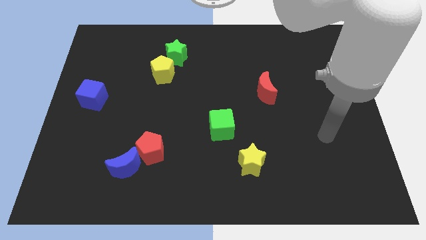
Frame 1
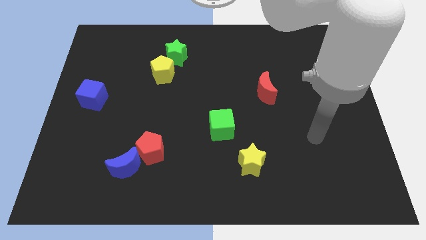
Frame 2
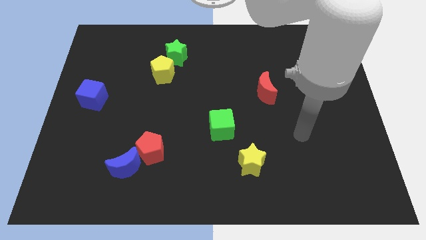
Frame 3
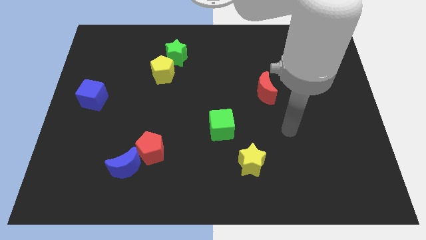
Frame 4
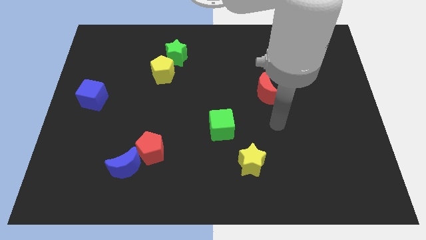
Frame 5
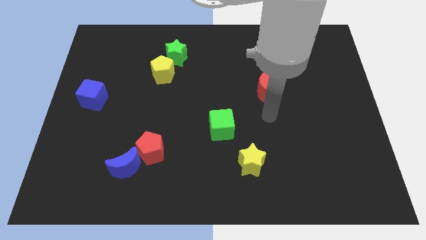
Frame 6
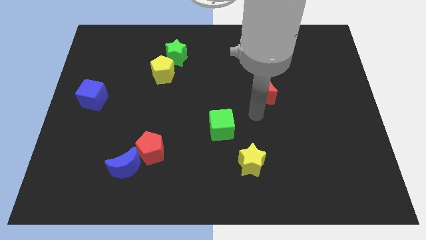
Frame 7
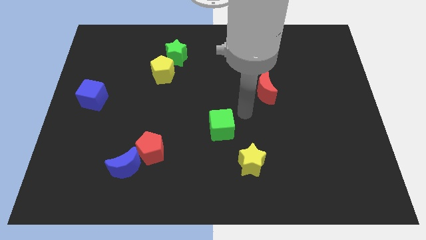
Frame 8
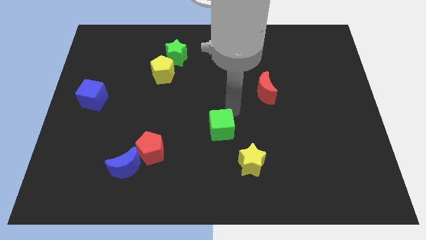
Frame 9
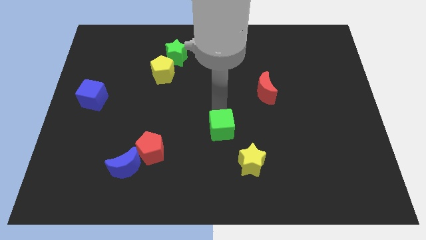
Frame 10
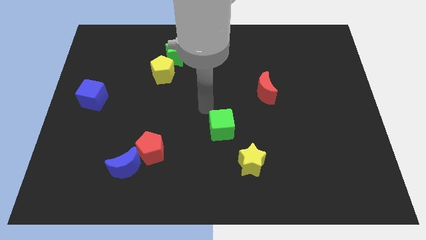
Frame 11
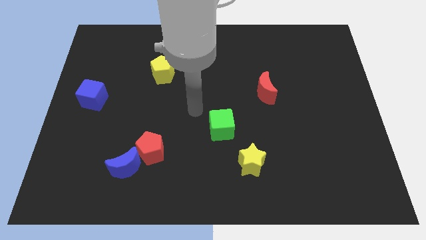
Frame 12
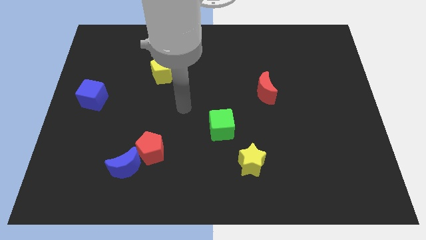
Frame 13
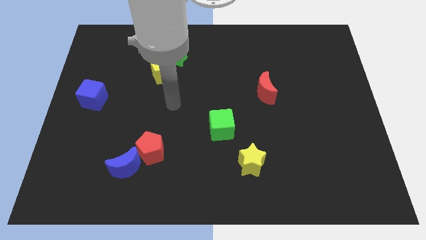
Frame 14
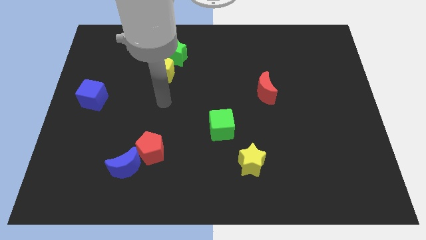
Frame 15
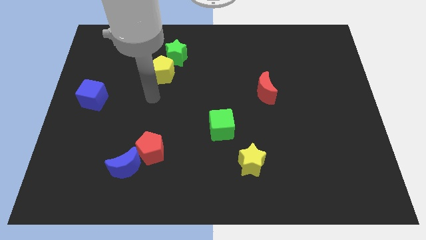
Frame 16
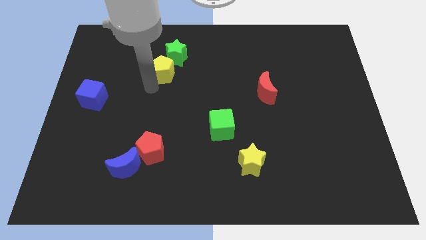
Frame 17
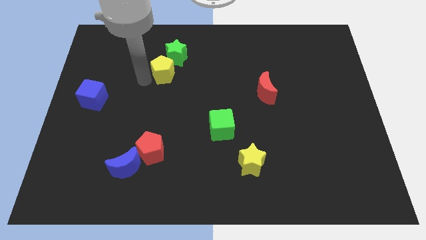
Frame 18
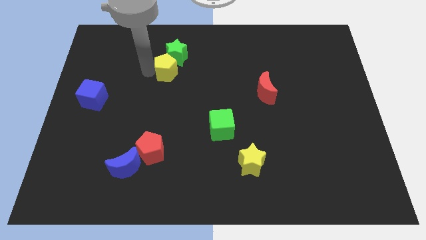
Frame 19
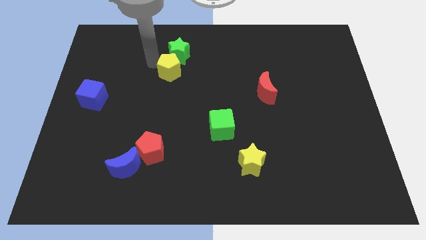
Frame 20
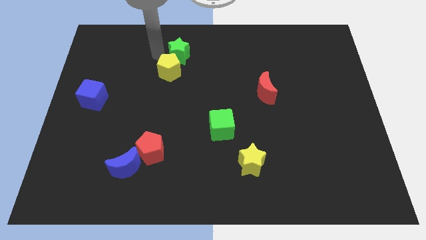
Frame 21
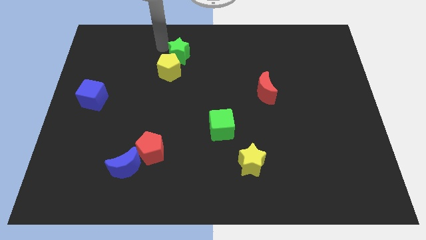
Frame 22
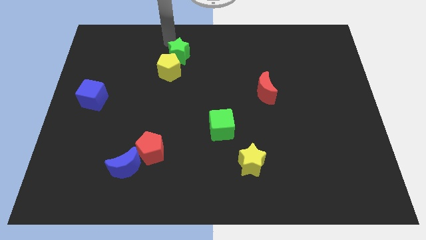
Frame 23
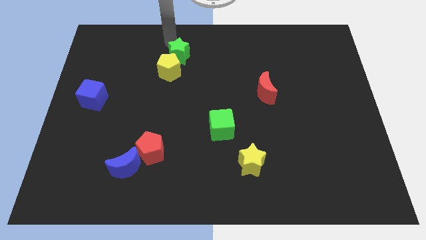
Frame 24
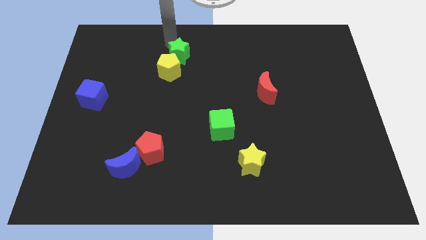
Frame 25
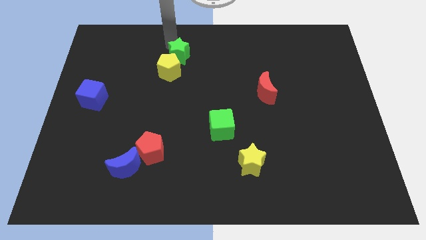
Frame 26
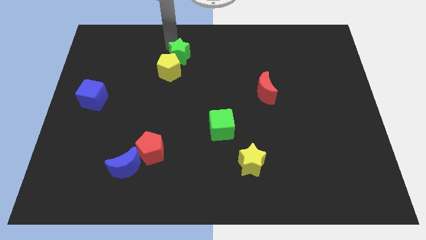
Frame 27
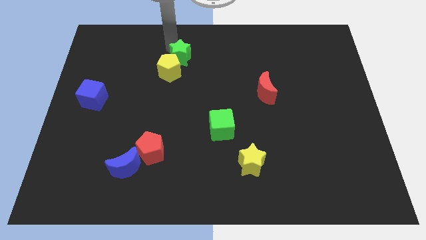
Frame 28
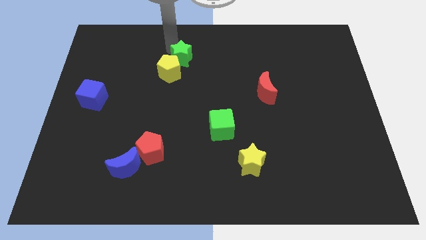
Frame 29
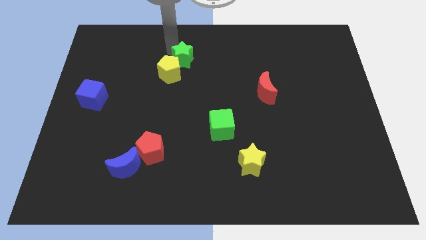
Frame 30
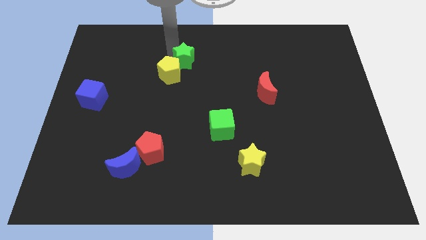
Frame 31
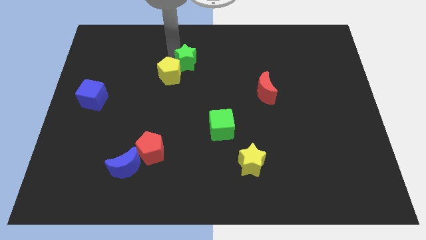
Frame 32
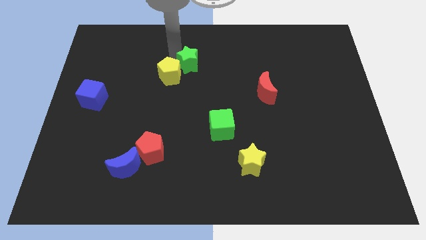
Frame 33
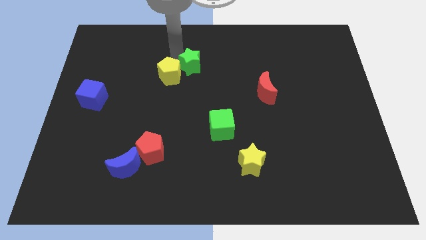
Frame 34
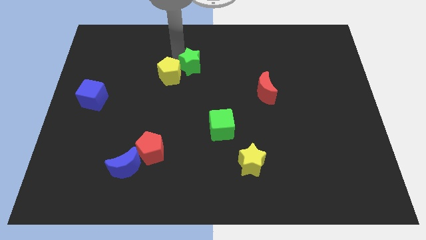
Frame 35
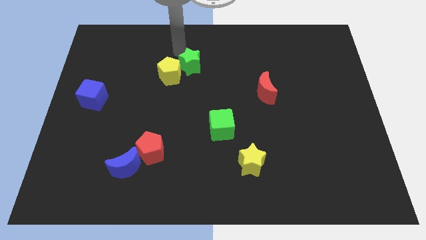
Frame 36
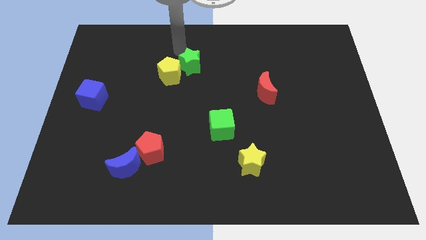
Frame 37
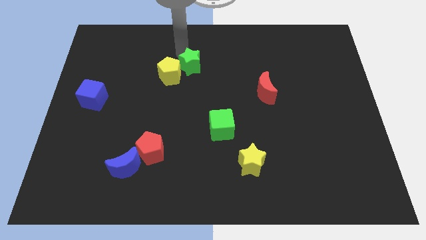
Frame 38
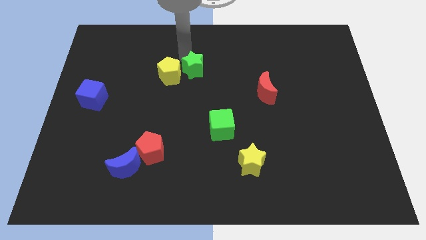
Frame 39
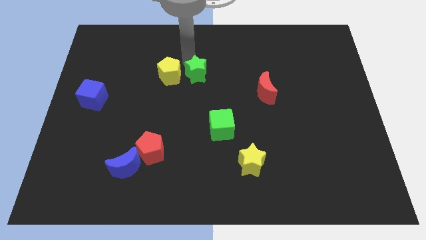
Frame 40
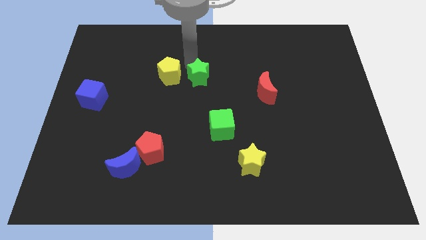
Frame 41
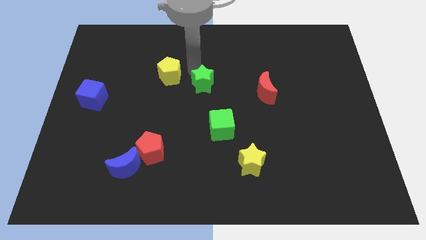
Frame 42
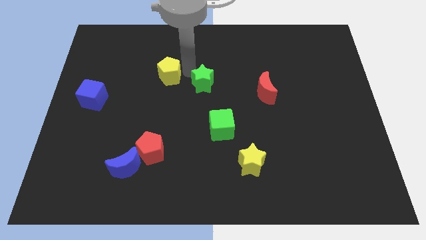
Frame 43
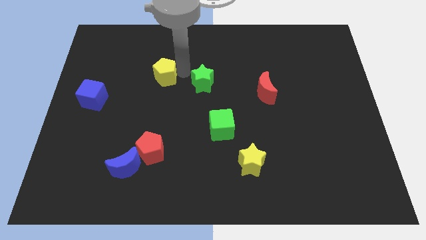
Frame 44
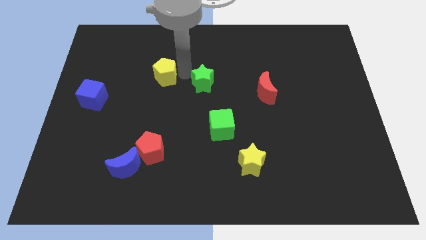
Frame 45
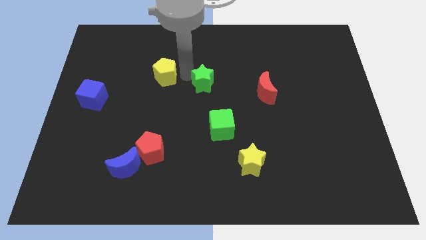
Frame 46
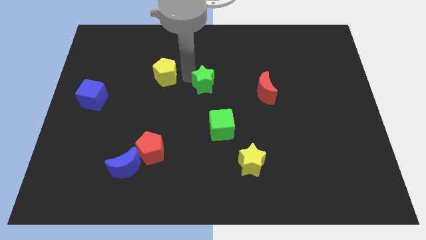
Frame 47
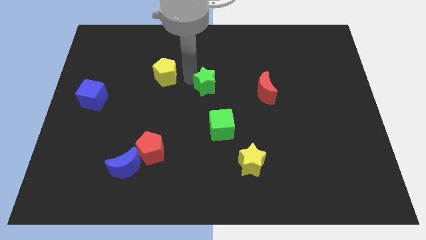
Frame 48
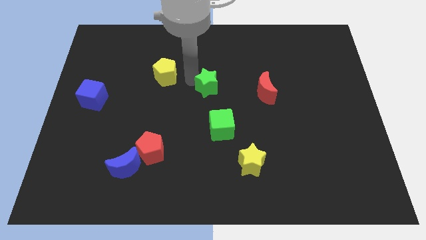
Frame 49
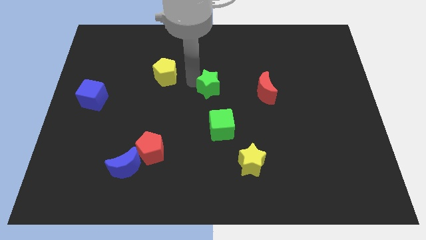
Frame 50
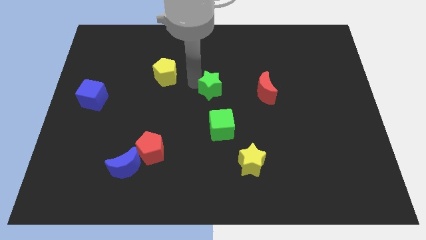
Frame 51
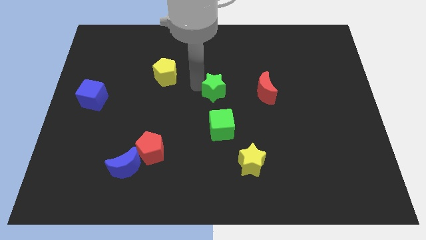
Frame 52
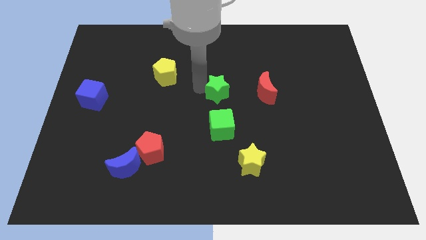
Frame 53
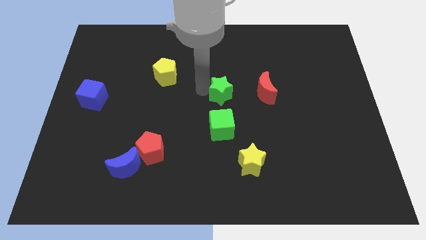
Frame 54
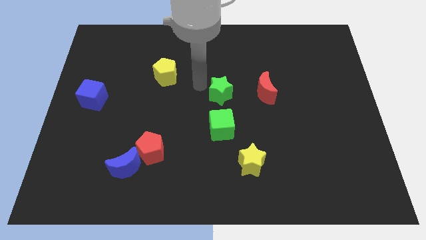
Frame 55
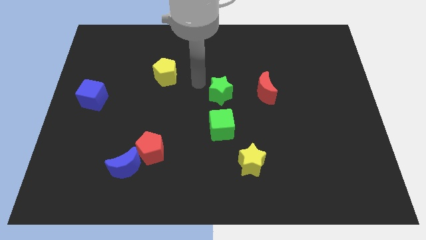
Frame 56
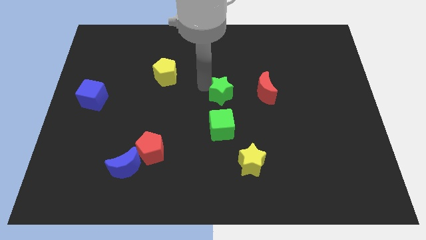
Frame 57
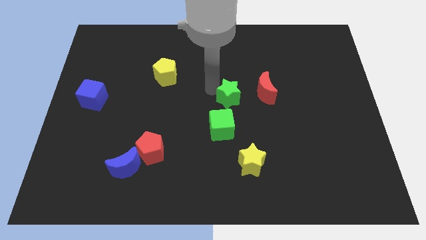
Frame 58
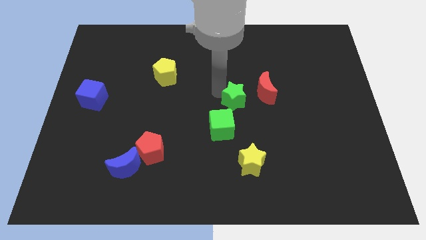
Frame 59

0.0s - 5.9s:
push the green star diagonally down and right

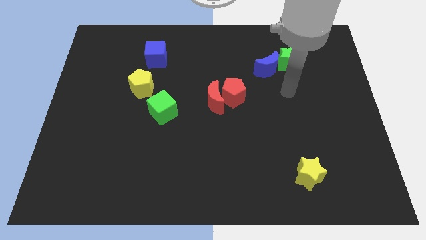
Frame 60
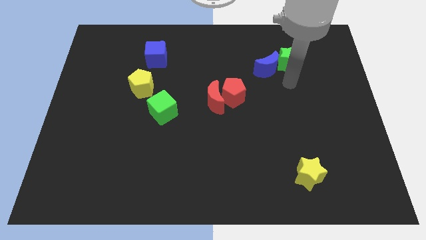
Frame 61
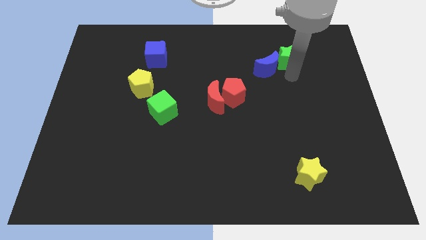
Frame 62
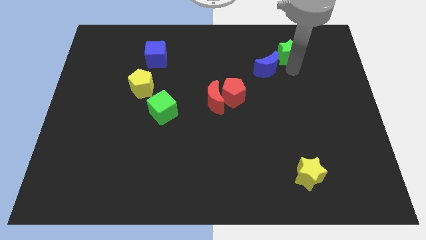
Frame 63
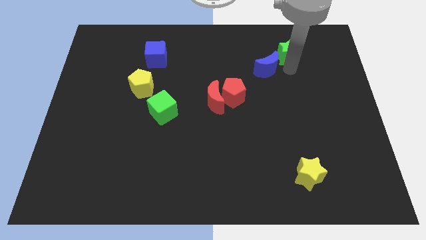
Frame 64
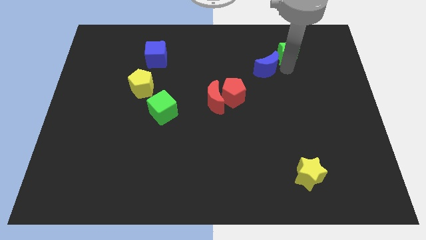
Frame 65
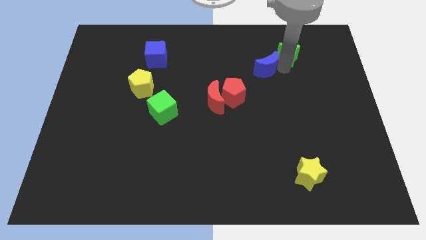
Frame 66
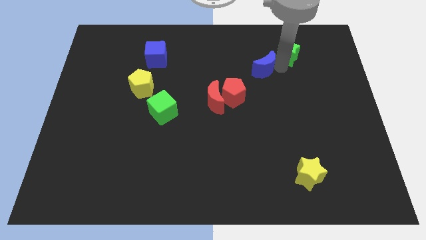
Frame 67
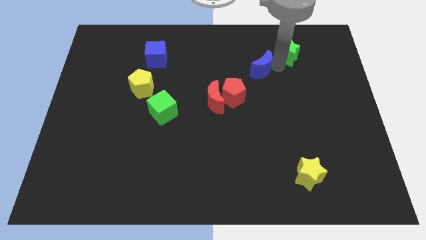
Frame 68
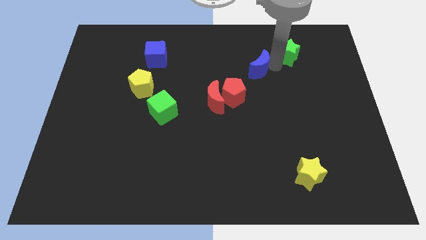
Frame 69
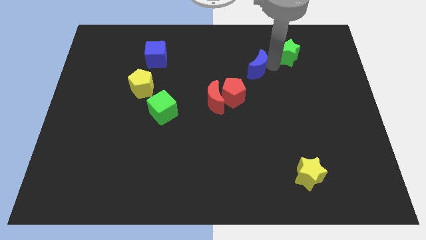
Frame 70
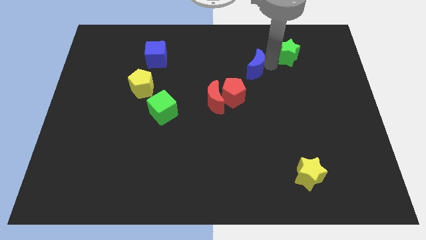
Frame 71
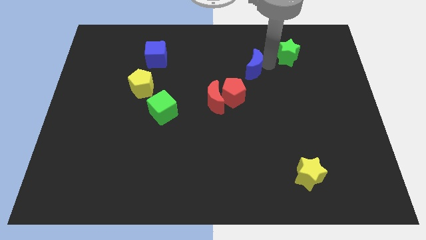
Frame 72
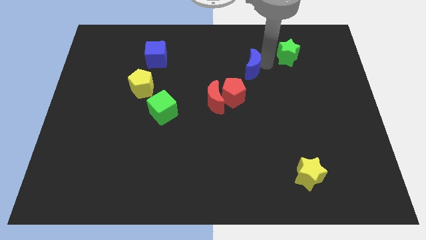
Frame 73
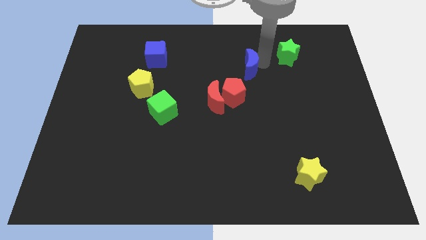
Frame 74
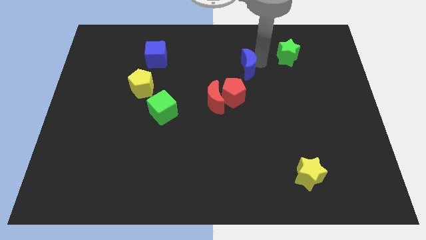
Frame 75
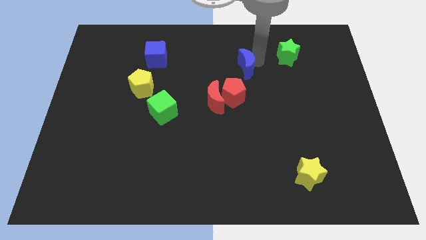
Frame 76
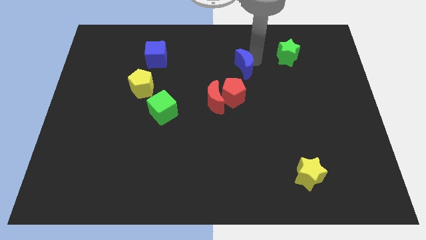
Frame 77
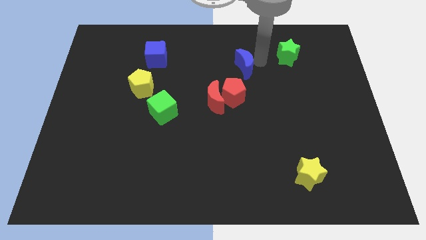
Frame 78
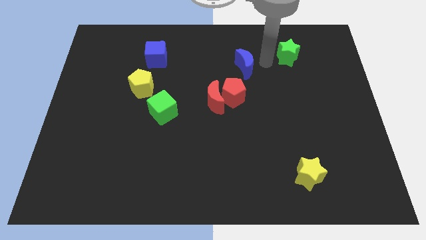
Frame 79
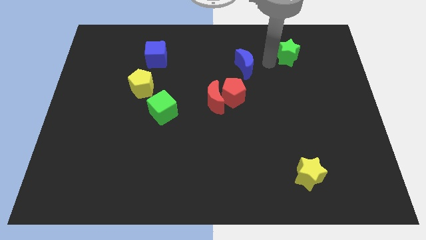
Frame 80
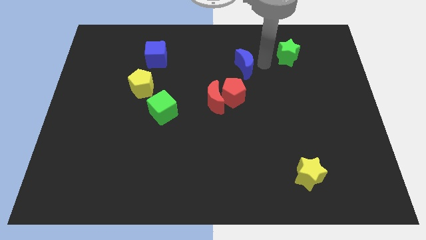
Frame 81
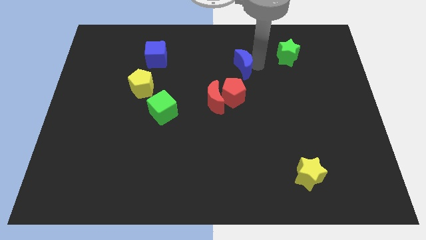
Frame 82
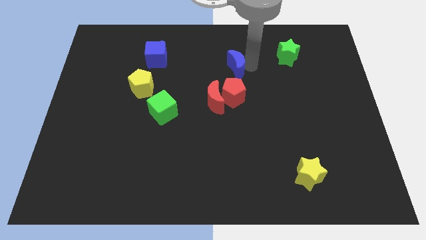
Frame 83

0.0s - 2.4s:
push the blue moon to the left somewhat
